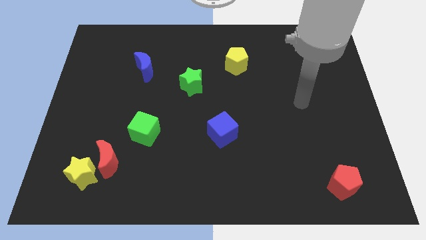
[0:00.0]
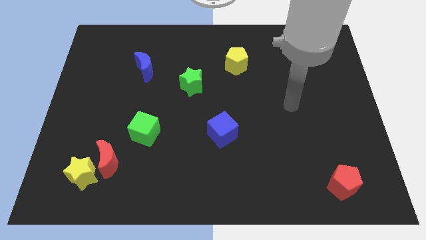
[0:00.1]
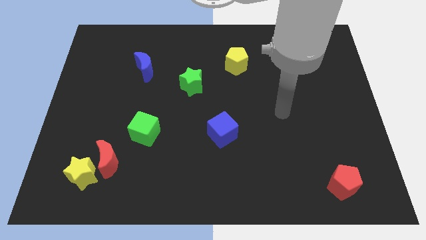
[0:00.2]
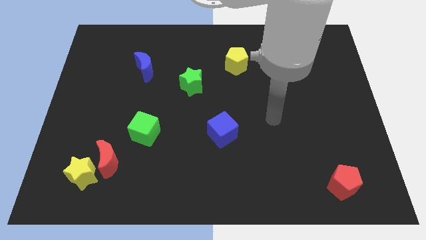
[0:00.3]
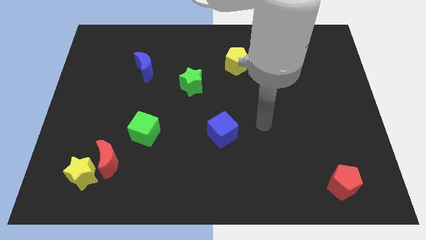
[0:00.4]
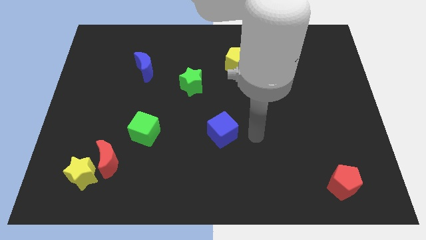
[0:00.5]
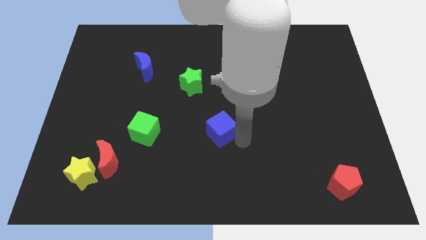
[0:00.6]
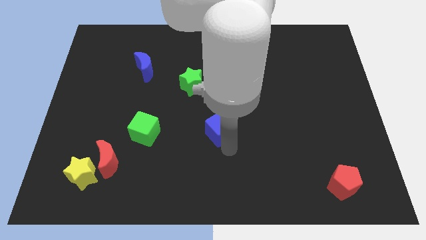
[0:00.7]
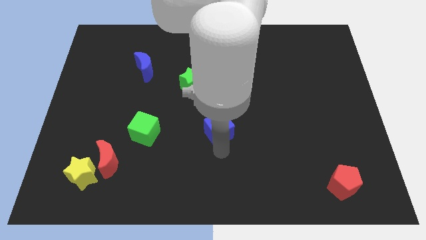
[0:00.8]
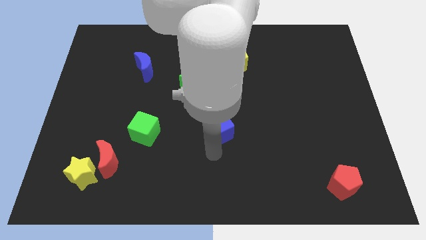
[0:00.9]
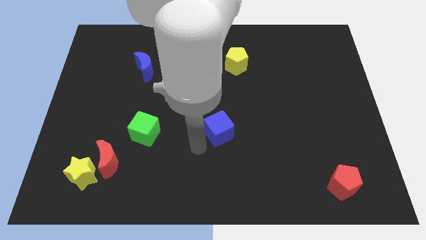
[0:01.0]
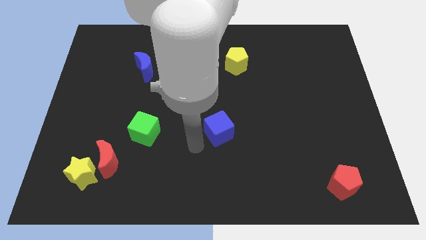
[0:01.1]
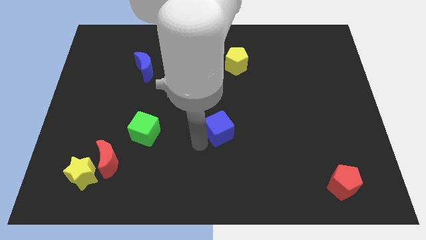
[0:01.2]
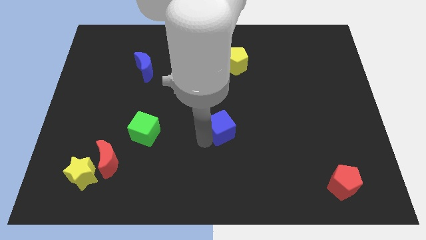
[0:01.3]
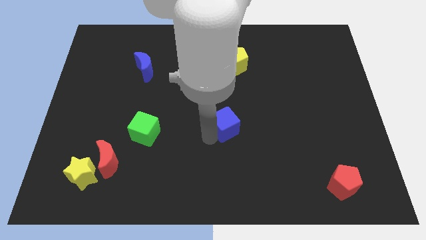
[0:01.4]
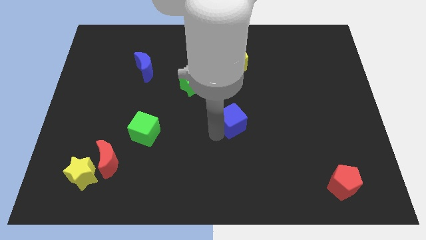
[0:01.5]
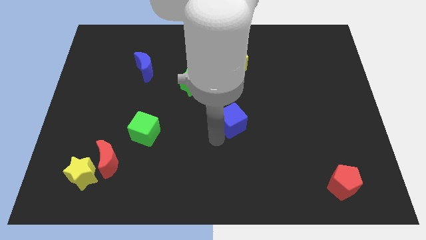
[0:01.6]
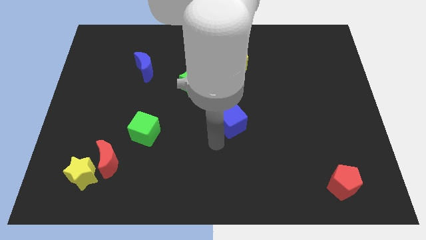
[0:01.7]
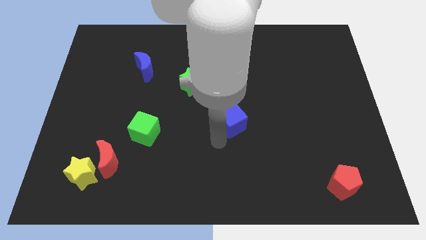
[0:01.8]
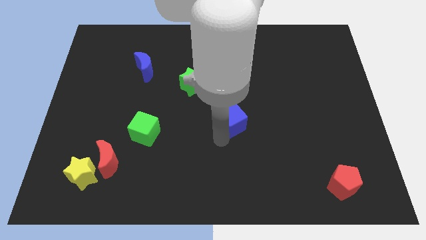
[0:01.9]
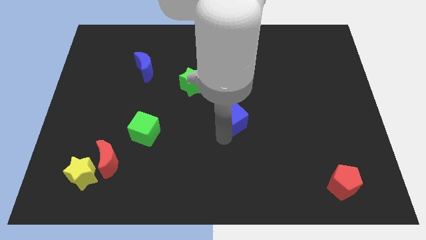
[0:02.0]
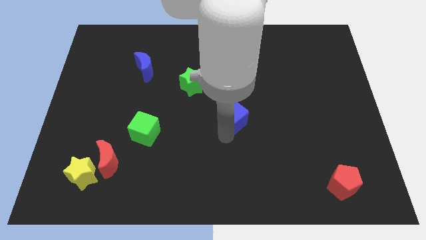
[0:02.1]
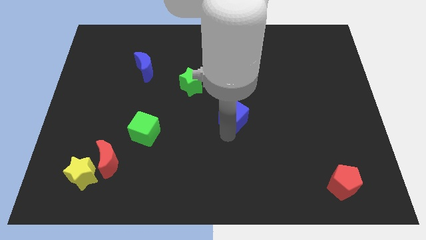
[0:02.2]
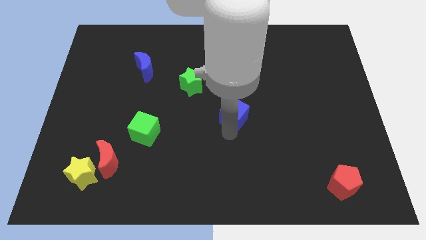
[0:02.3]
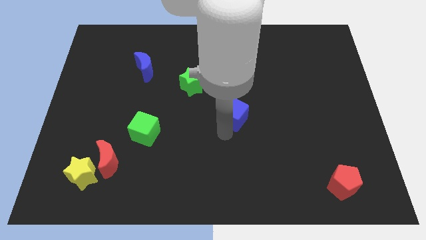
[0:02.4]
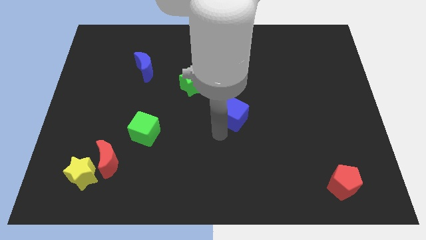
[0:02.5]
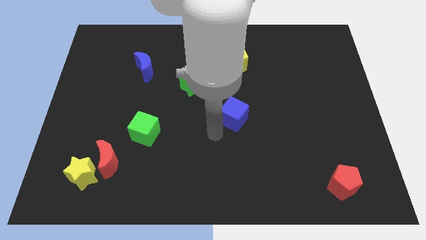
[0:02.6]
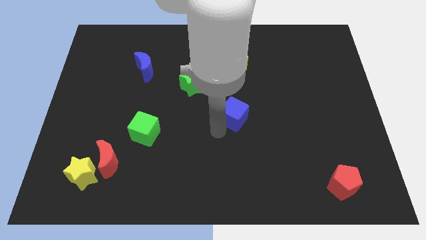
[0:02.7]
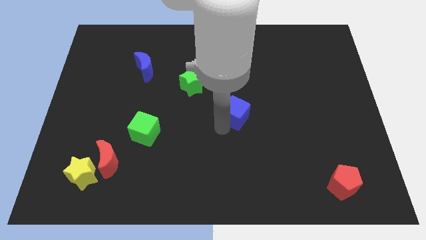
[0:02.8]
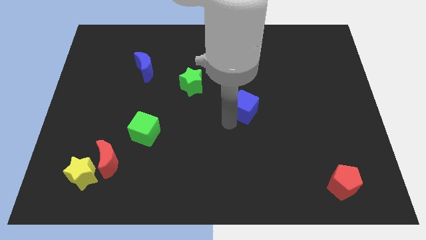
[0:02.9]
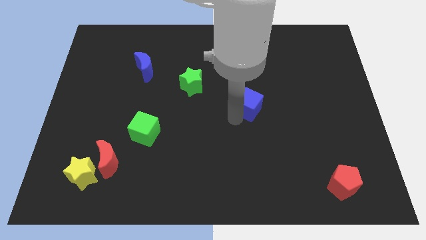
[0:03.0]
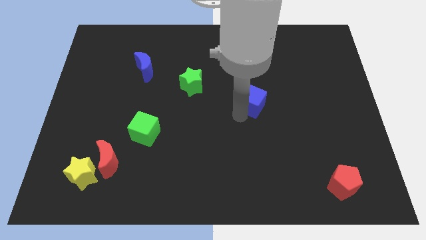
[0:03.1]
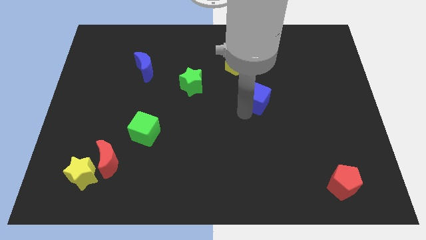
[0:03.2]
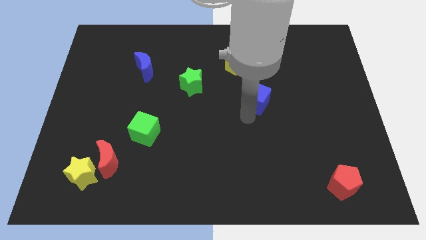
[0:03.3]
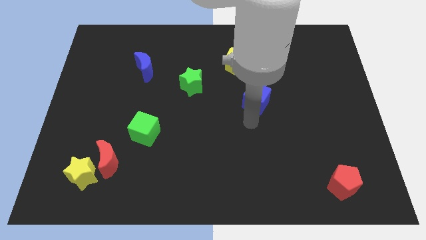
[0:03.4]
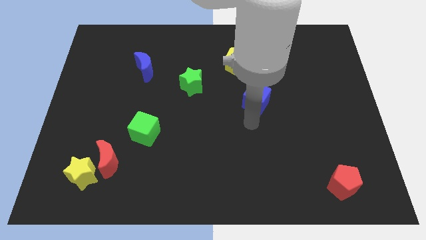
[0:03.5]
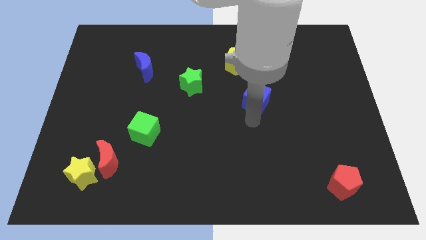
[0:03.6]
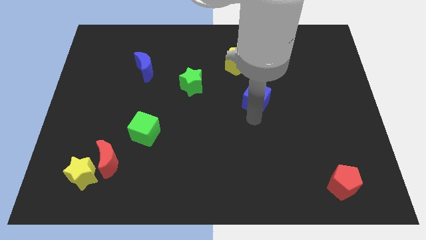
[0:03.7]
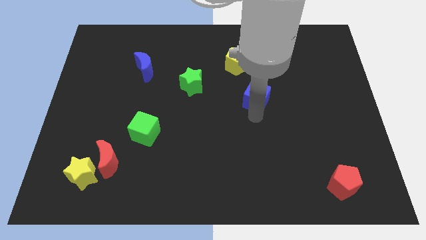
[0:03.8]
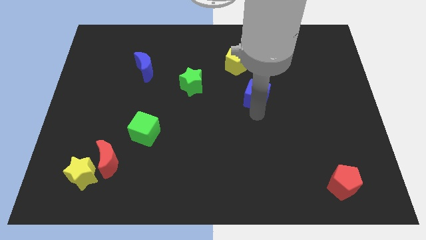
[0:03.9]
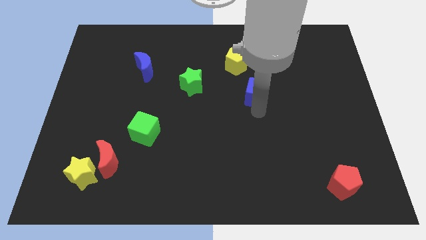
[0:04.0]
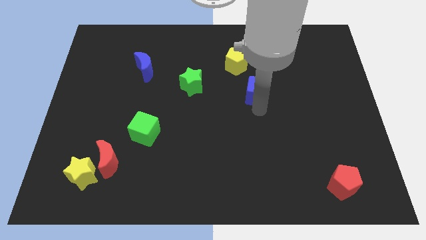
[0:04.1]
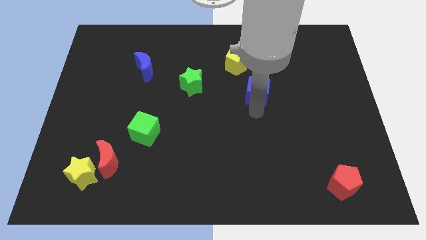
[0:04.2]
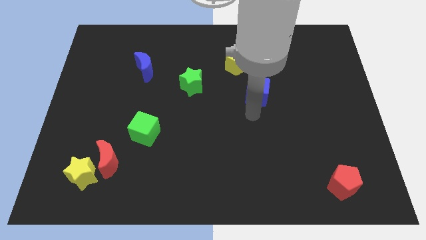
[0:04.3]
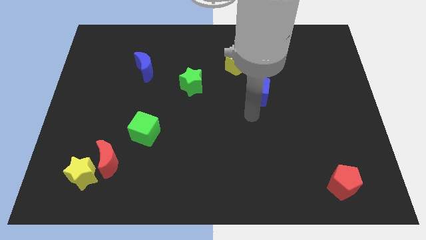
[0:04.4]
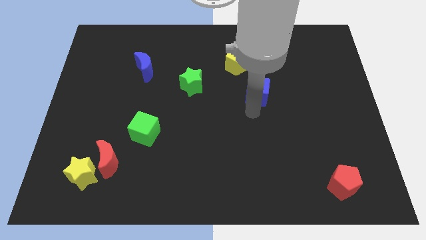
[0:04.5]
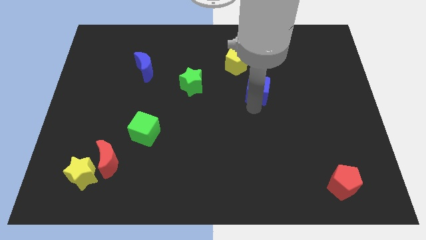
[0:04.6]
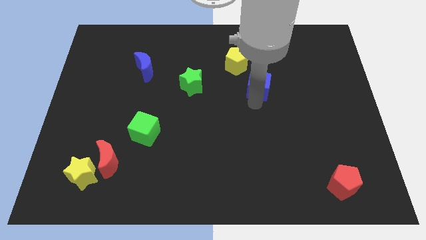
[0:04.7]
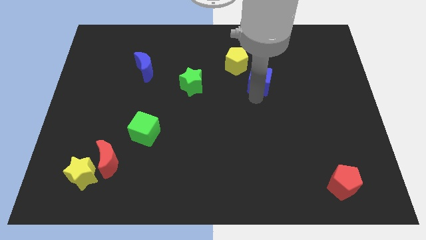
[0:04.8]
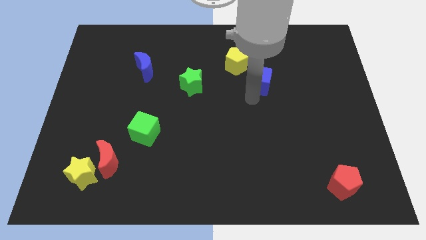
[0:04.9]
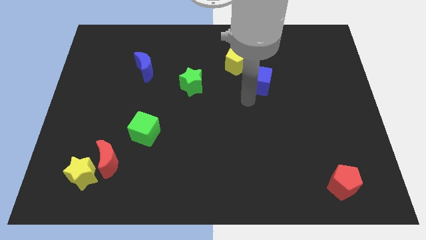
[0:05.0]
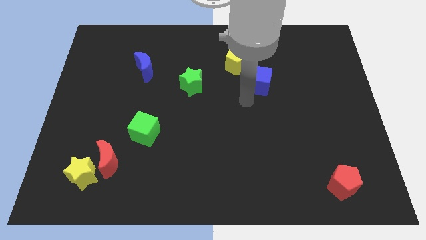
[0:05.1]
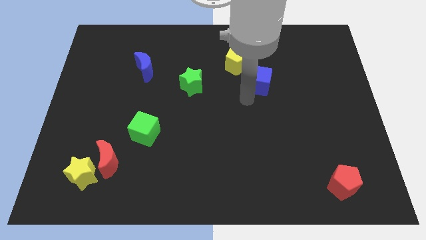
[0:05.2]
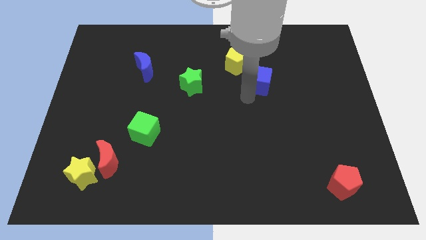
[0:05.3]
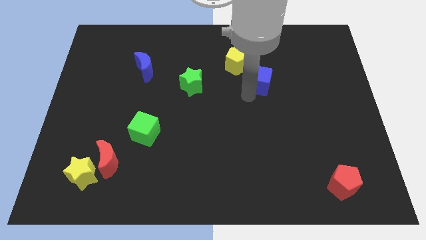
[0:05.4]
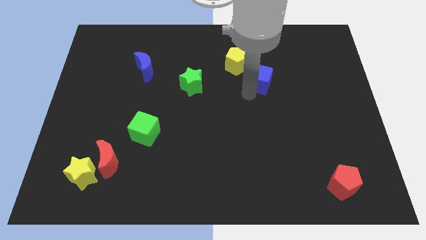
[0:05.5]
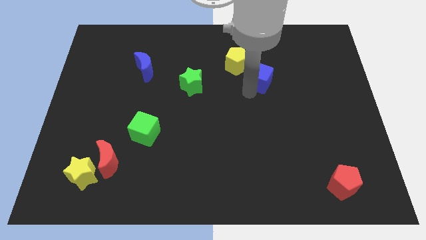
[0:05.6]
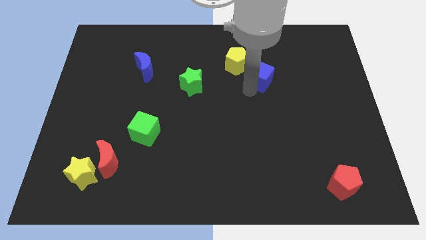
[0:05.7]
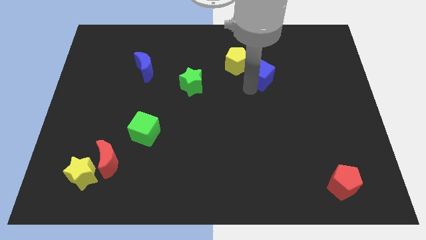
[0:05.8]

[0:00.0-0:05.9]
put the blue cube right of the yellow pentagon

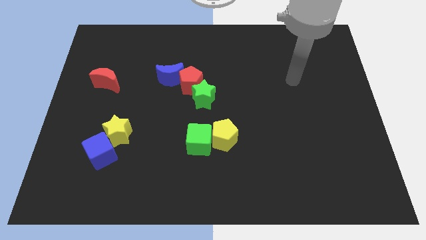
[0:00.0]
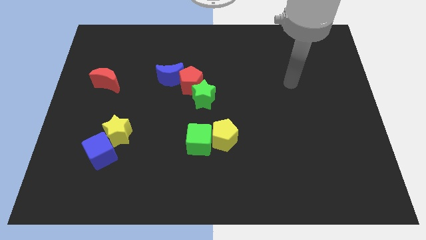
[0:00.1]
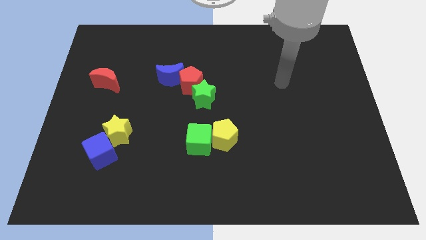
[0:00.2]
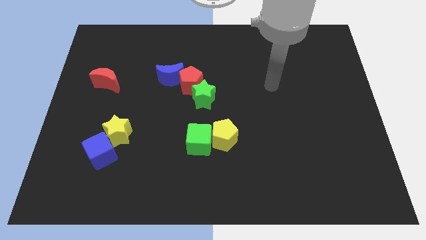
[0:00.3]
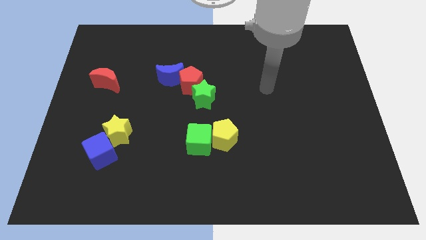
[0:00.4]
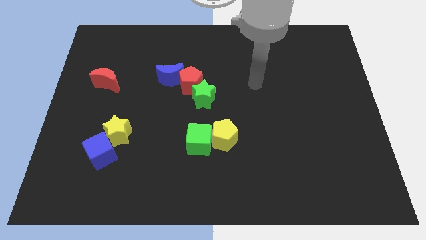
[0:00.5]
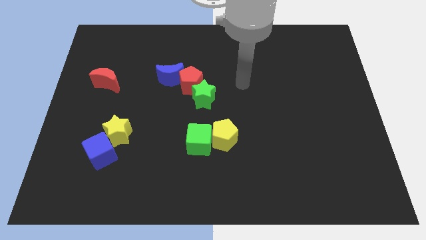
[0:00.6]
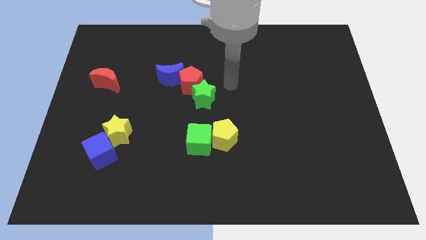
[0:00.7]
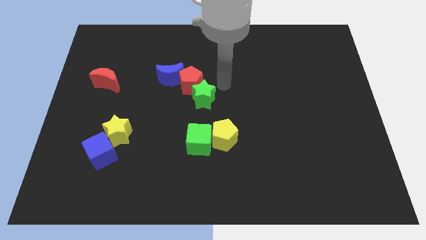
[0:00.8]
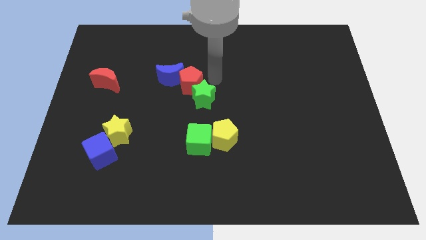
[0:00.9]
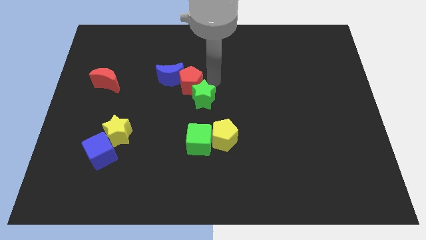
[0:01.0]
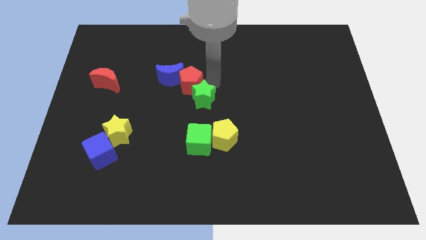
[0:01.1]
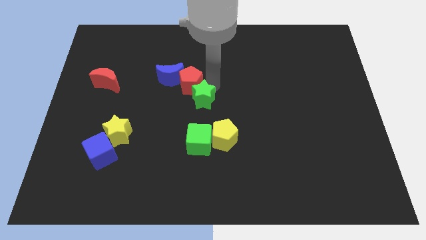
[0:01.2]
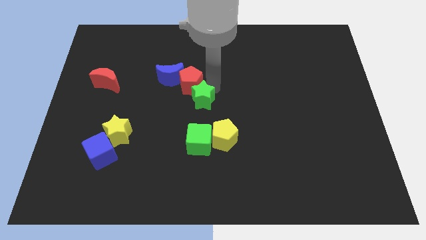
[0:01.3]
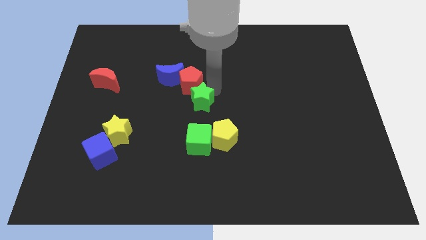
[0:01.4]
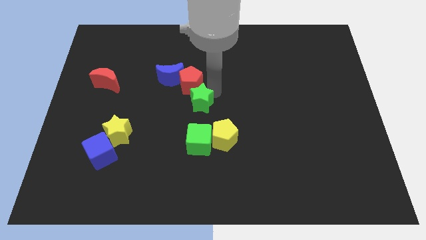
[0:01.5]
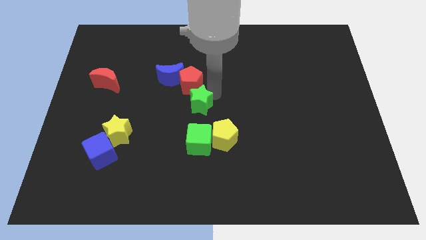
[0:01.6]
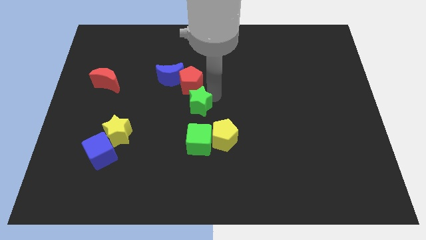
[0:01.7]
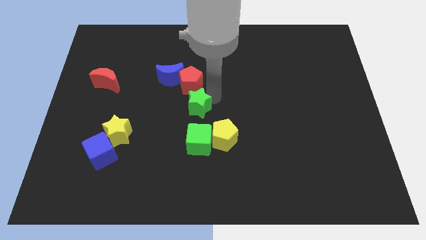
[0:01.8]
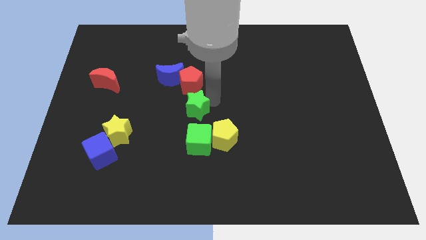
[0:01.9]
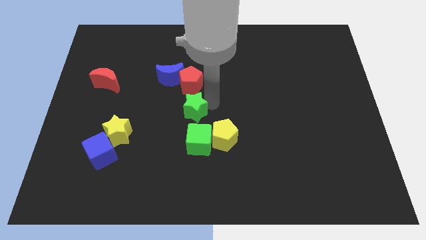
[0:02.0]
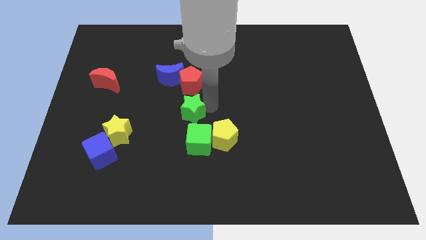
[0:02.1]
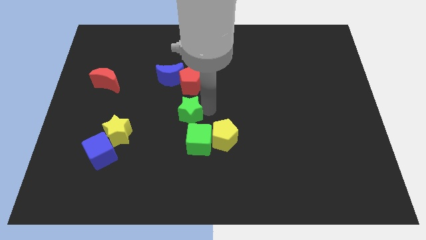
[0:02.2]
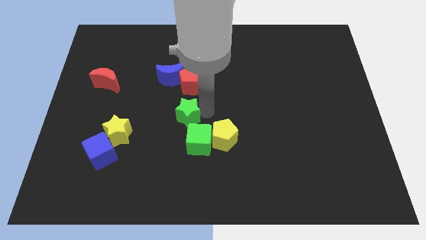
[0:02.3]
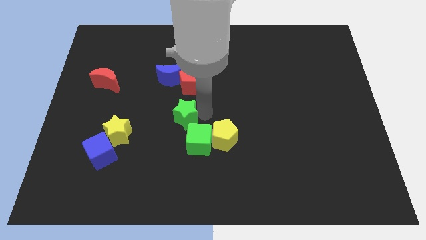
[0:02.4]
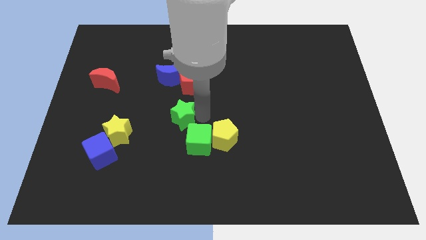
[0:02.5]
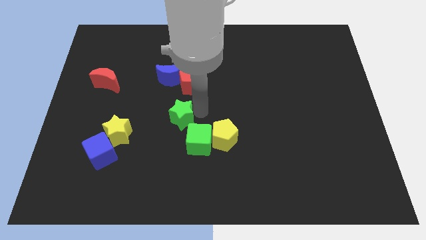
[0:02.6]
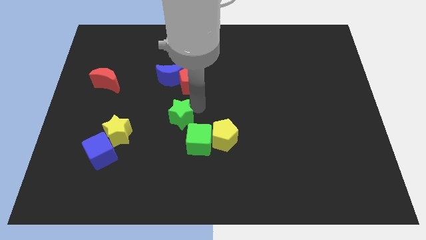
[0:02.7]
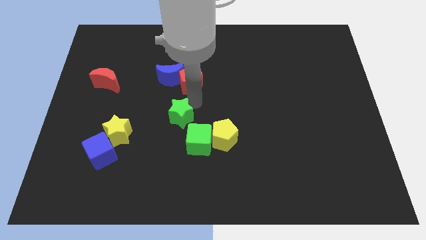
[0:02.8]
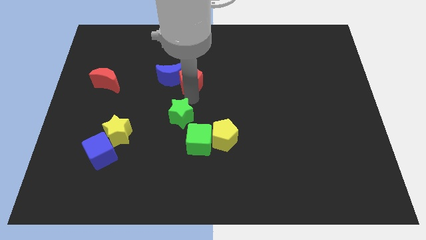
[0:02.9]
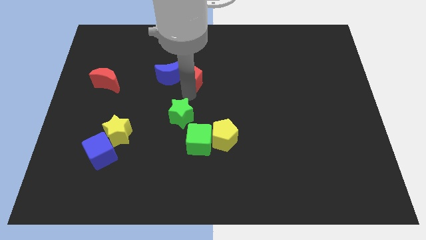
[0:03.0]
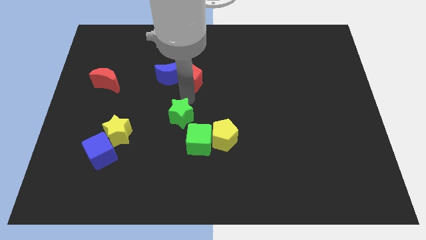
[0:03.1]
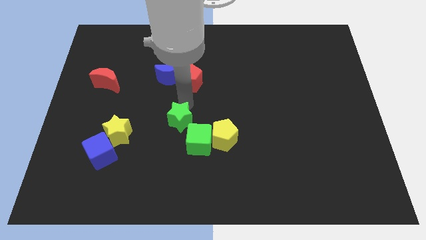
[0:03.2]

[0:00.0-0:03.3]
put the green star just left of the yellow pentagon
